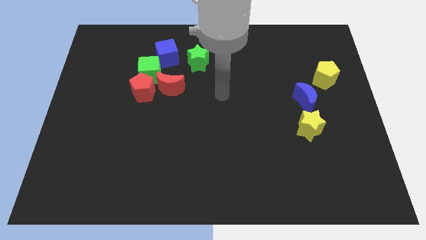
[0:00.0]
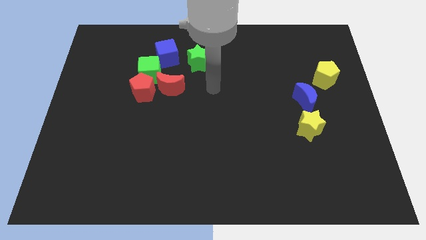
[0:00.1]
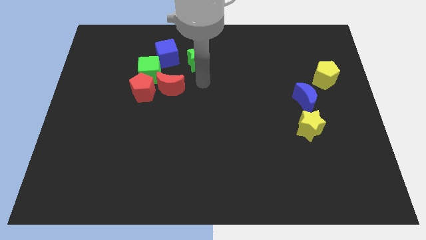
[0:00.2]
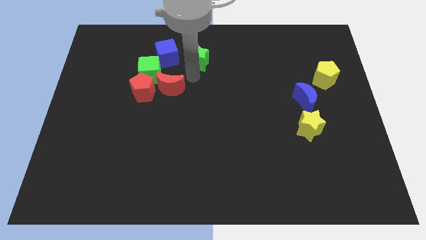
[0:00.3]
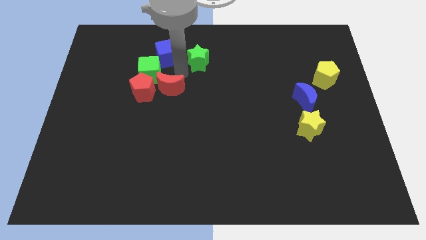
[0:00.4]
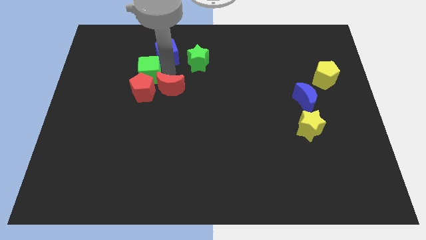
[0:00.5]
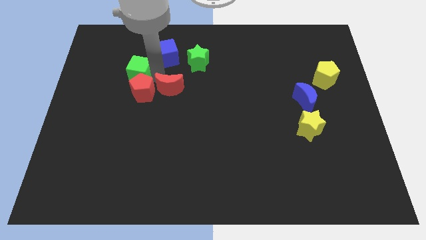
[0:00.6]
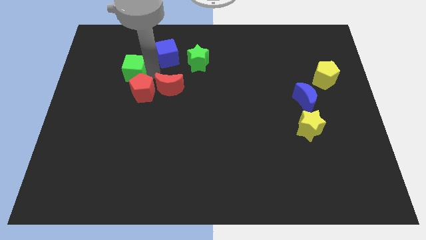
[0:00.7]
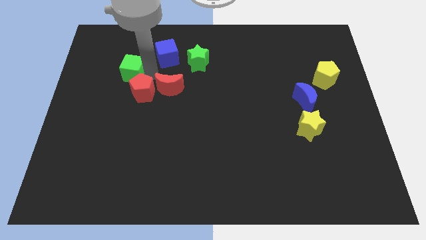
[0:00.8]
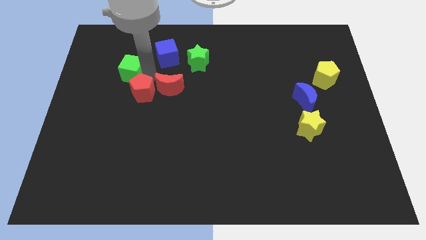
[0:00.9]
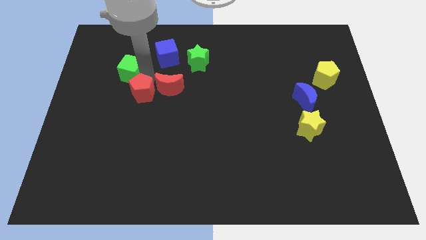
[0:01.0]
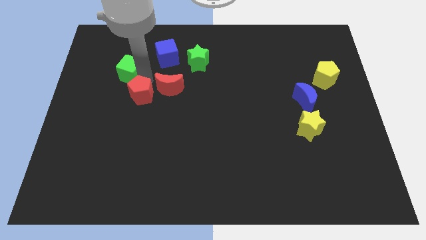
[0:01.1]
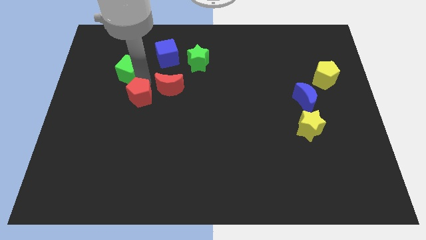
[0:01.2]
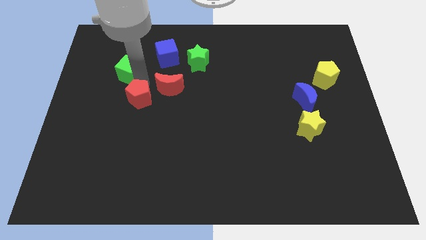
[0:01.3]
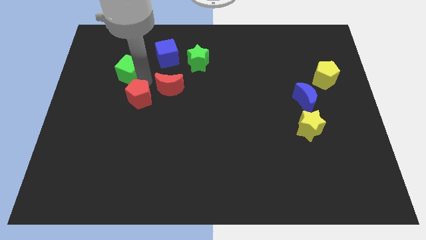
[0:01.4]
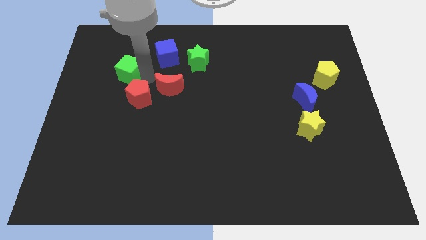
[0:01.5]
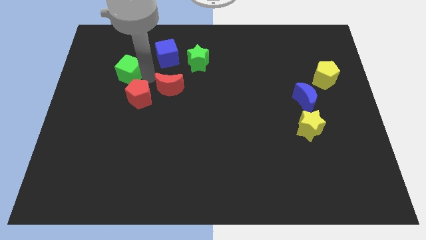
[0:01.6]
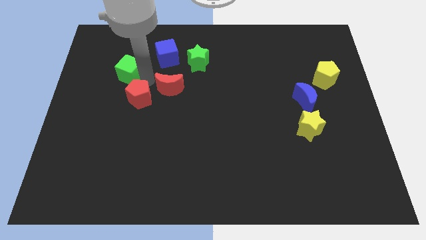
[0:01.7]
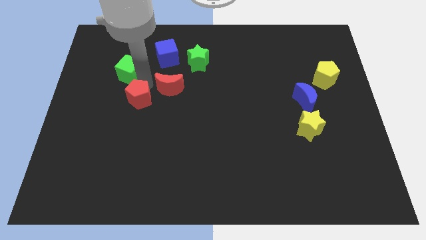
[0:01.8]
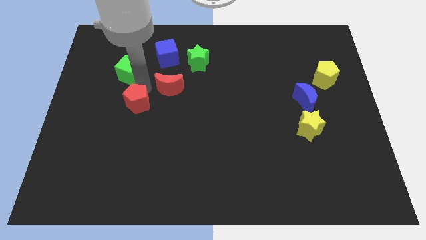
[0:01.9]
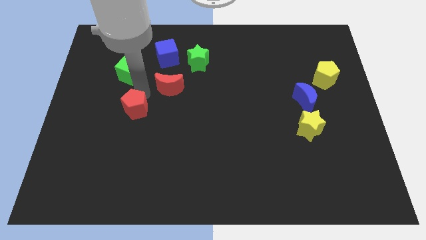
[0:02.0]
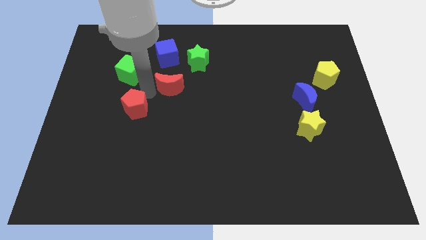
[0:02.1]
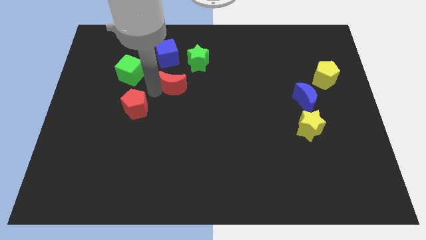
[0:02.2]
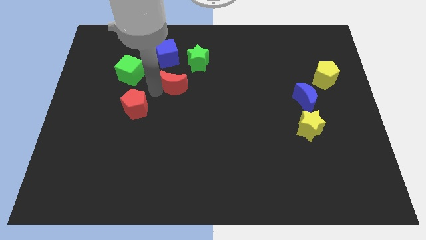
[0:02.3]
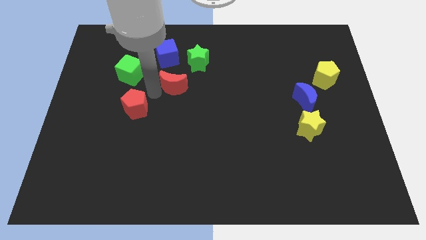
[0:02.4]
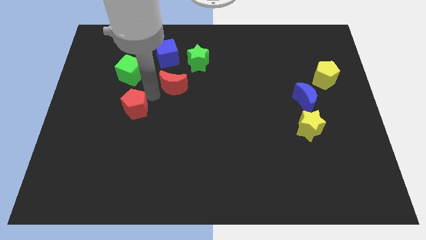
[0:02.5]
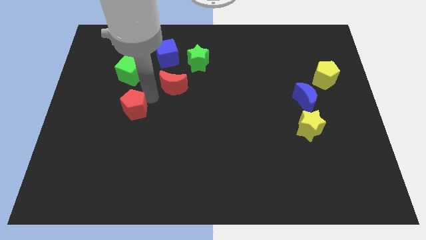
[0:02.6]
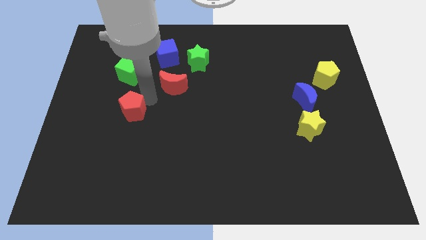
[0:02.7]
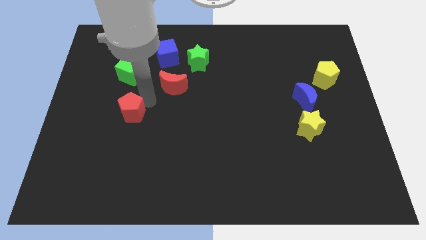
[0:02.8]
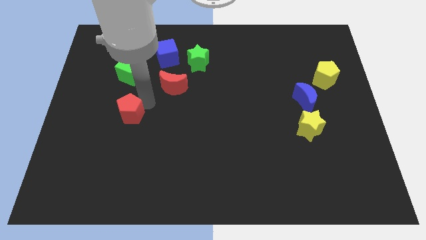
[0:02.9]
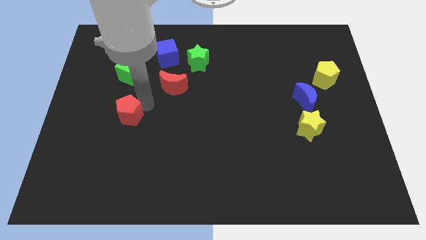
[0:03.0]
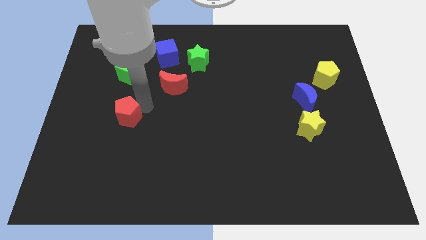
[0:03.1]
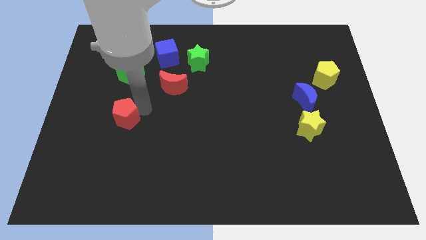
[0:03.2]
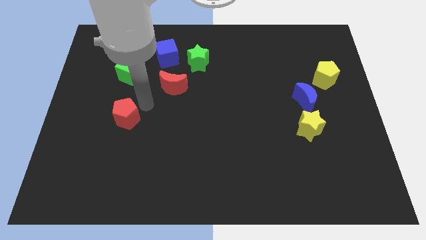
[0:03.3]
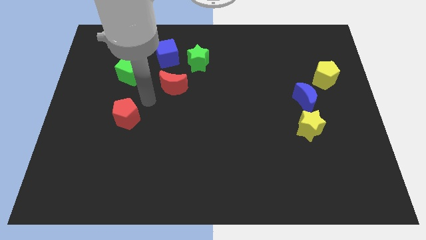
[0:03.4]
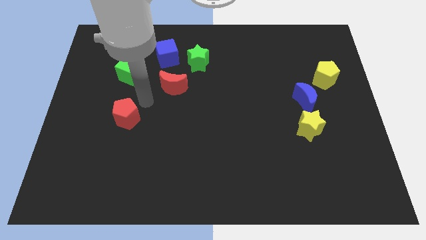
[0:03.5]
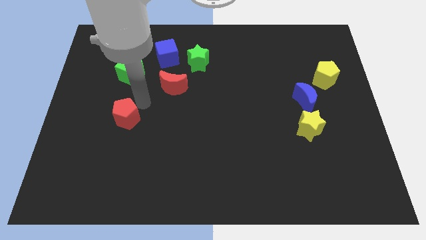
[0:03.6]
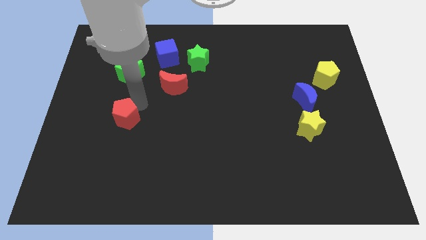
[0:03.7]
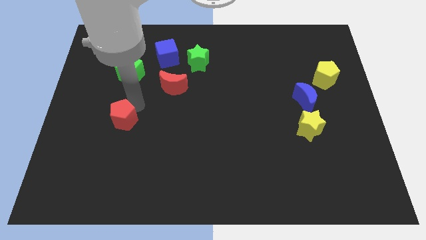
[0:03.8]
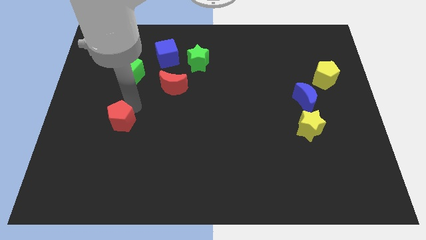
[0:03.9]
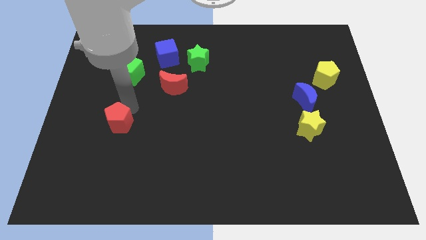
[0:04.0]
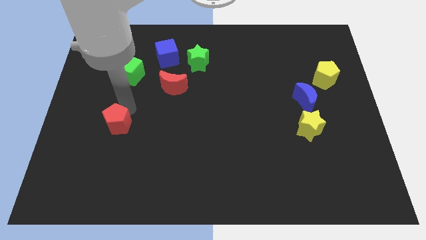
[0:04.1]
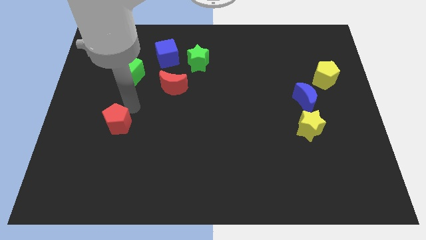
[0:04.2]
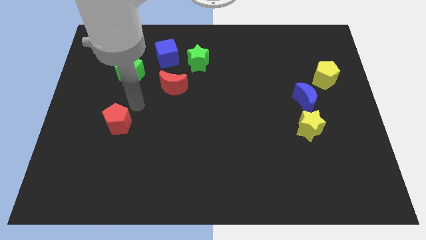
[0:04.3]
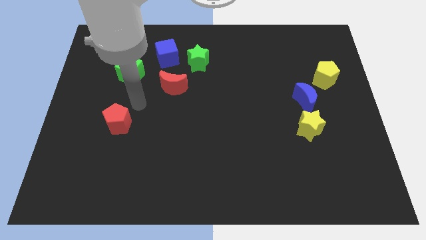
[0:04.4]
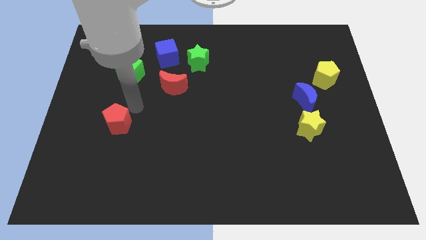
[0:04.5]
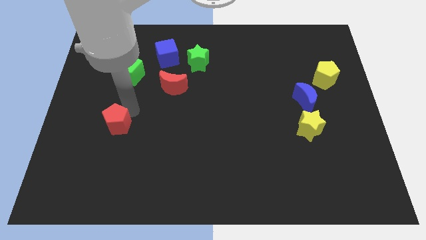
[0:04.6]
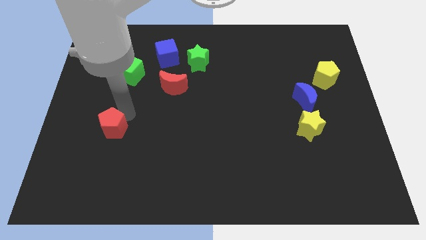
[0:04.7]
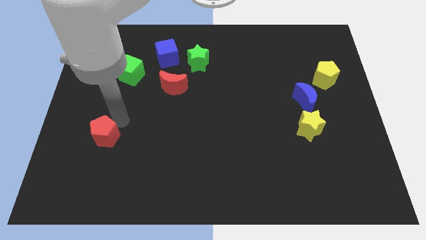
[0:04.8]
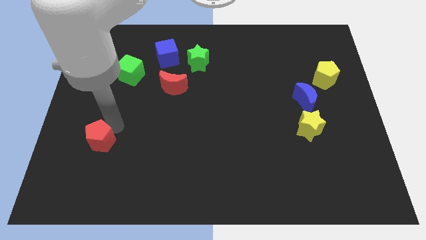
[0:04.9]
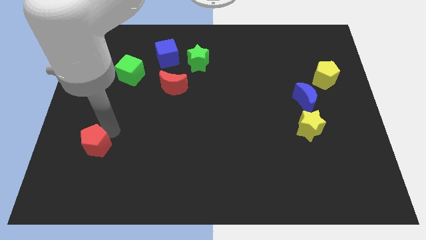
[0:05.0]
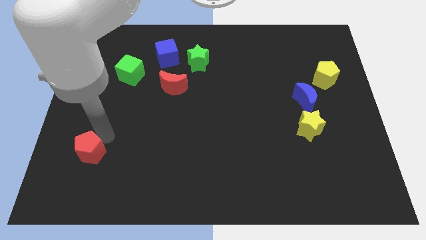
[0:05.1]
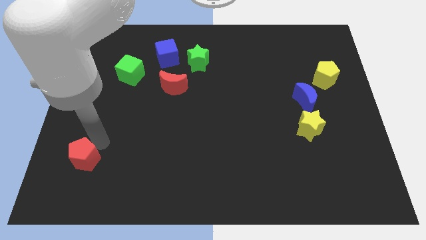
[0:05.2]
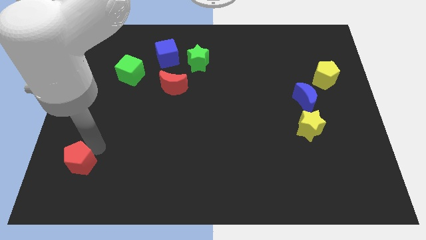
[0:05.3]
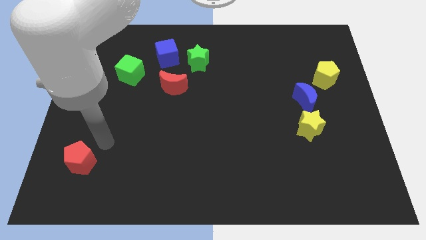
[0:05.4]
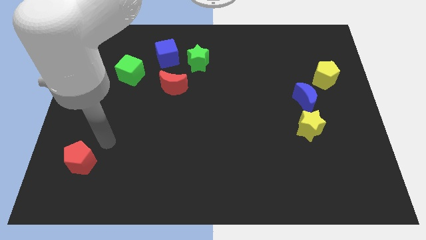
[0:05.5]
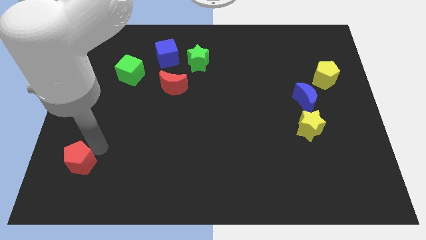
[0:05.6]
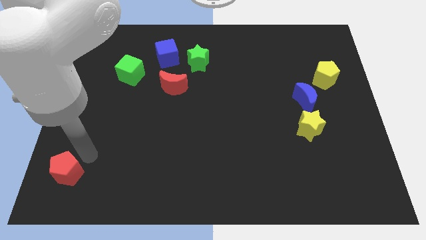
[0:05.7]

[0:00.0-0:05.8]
put the red pentagon to the bottom left
